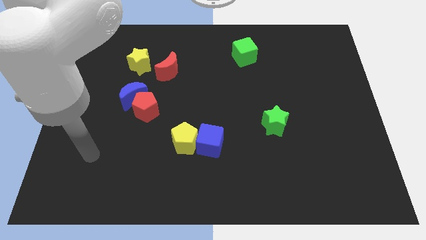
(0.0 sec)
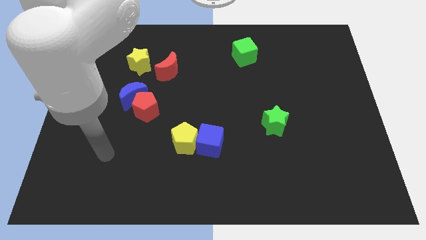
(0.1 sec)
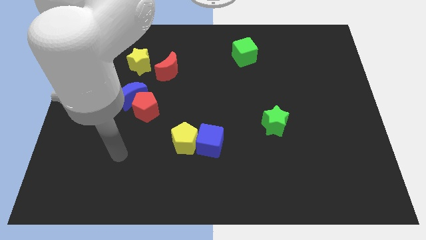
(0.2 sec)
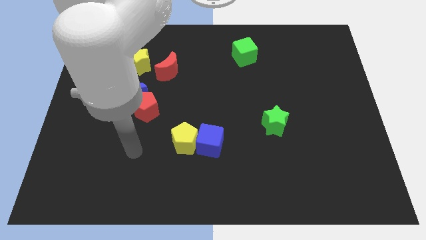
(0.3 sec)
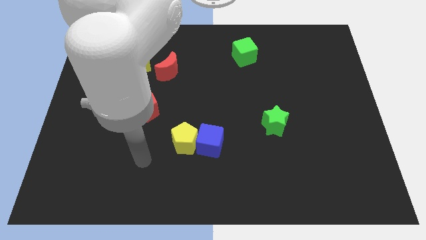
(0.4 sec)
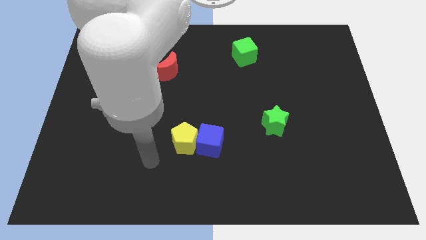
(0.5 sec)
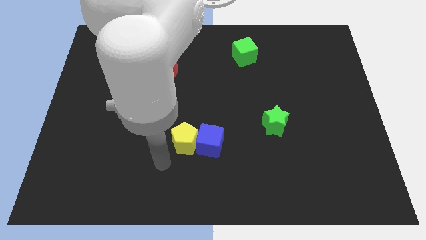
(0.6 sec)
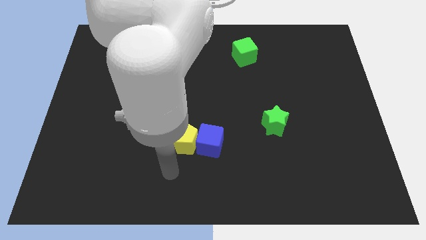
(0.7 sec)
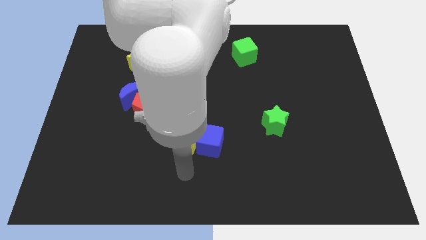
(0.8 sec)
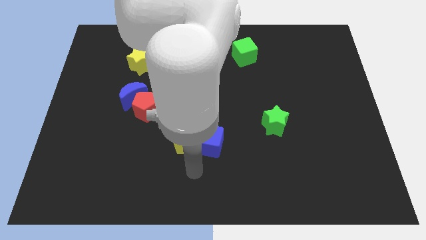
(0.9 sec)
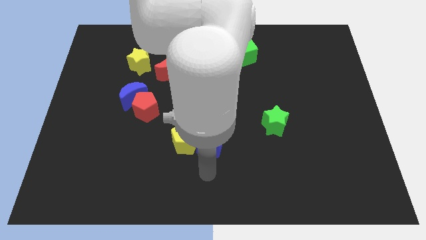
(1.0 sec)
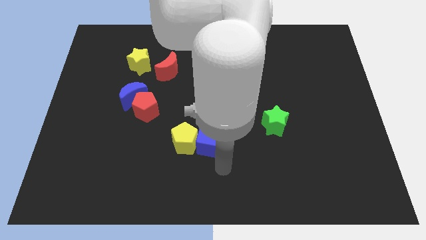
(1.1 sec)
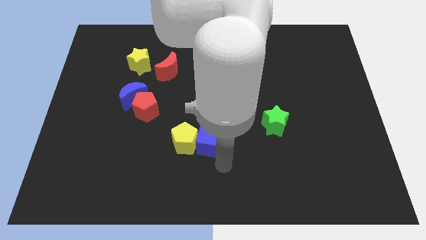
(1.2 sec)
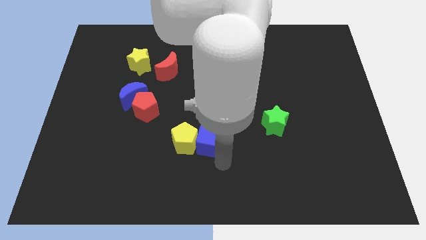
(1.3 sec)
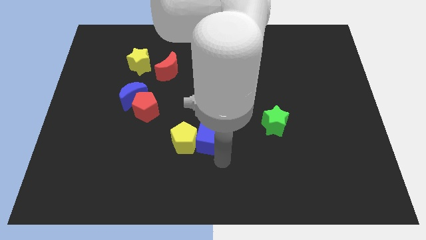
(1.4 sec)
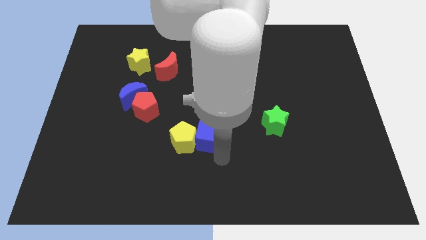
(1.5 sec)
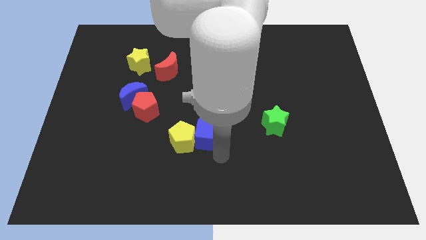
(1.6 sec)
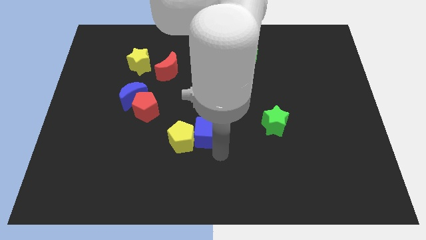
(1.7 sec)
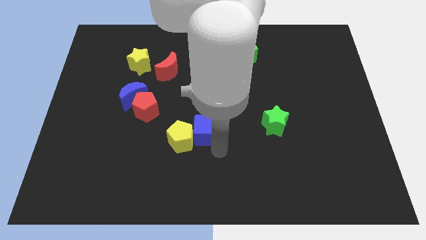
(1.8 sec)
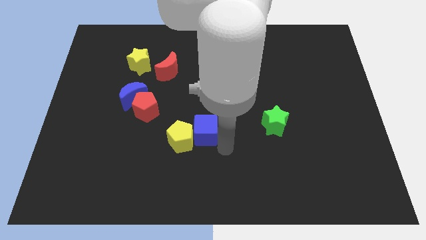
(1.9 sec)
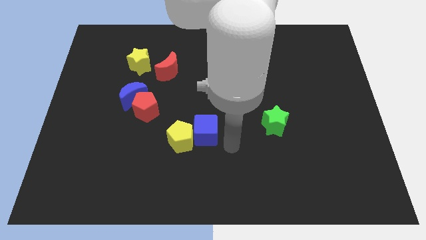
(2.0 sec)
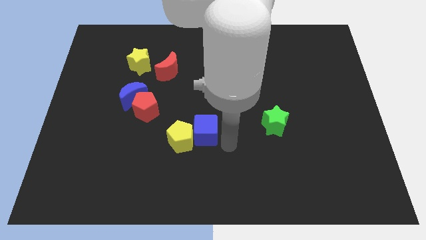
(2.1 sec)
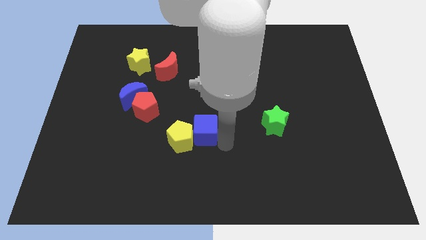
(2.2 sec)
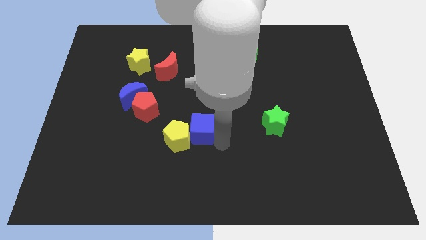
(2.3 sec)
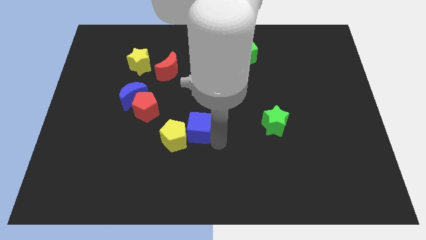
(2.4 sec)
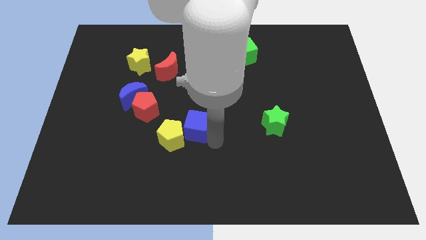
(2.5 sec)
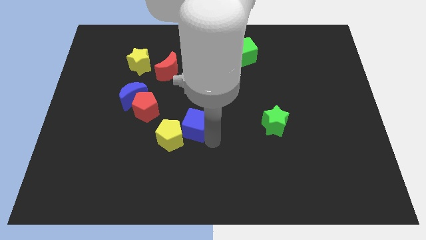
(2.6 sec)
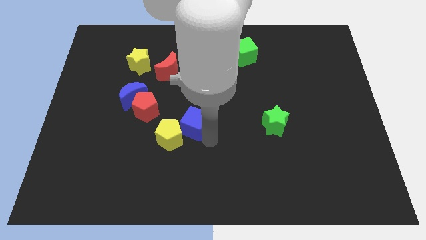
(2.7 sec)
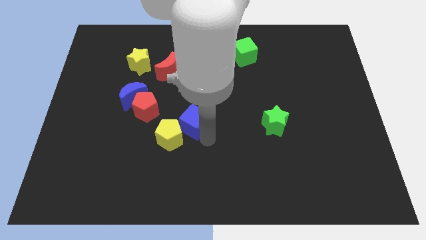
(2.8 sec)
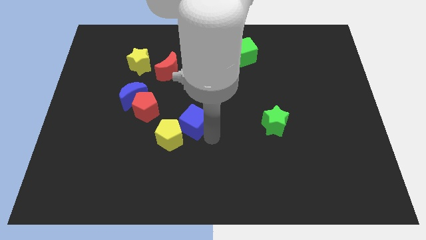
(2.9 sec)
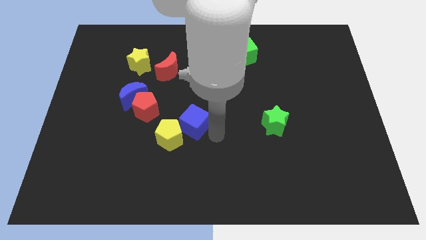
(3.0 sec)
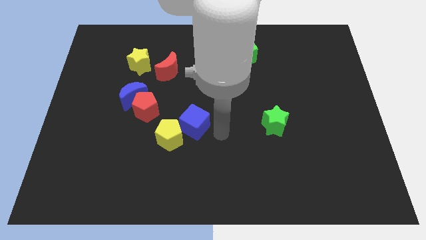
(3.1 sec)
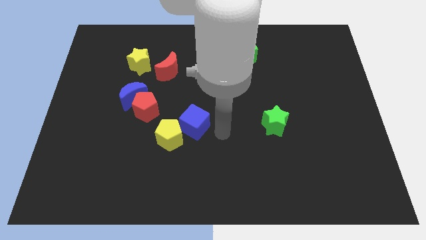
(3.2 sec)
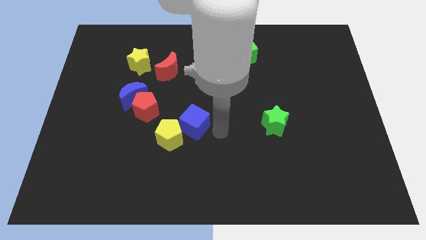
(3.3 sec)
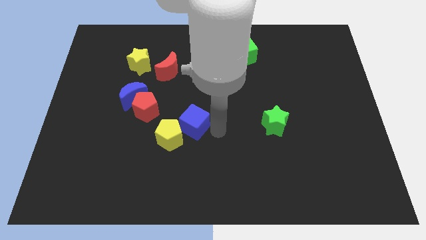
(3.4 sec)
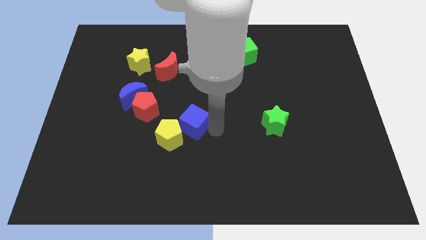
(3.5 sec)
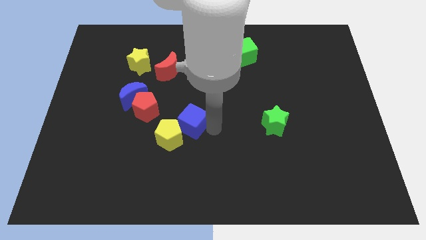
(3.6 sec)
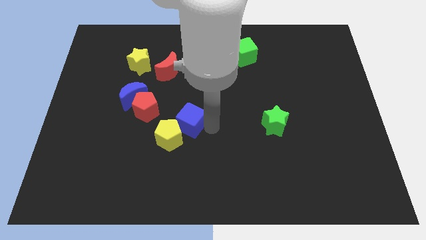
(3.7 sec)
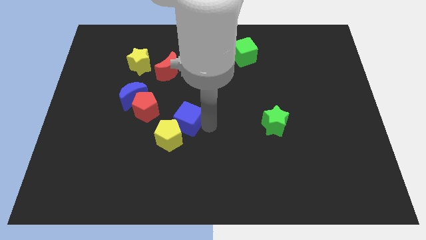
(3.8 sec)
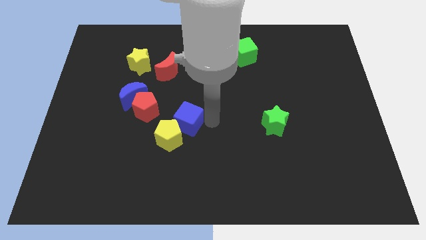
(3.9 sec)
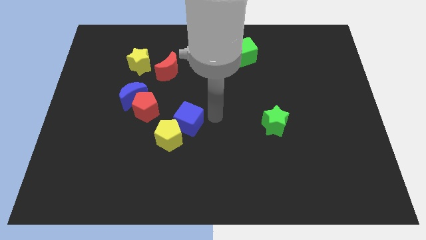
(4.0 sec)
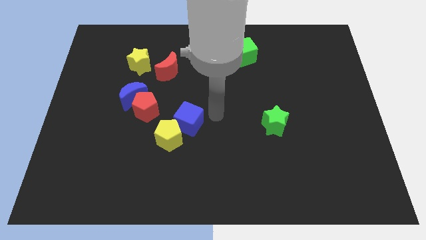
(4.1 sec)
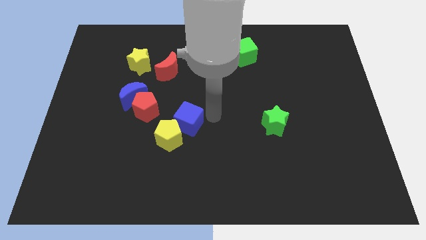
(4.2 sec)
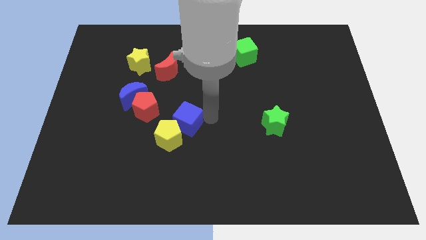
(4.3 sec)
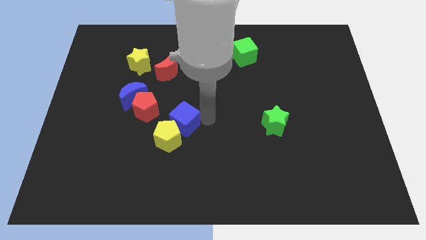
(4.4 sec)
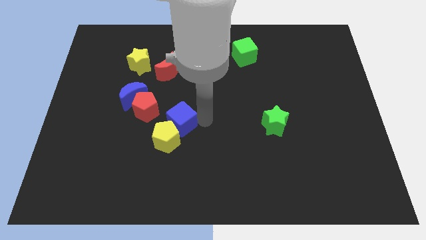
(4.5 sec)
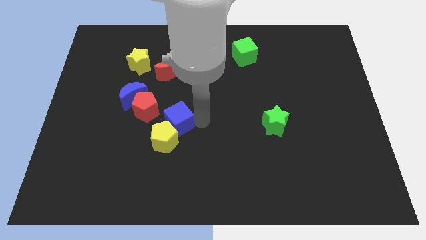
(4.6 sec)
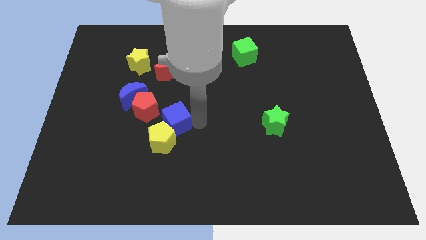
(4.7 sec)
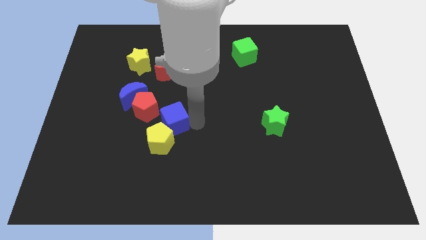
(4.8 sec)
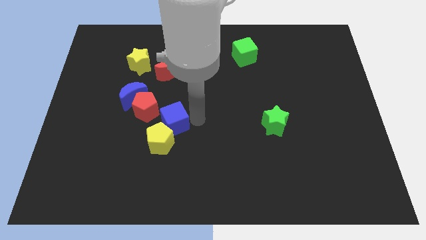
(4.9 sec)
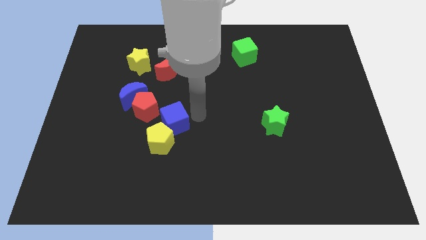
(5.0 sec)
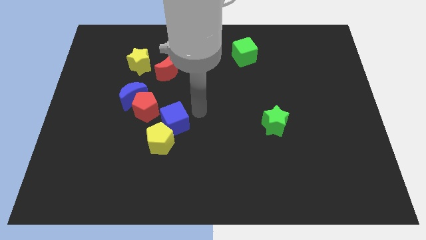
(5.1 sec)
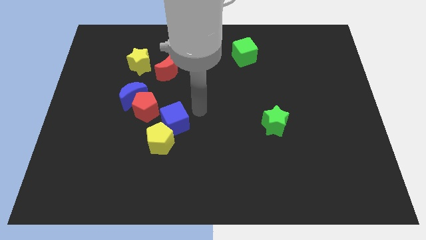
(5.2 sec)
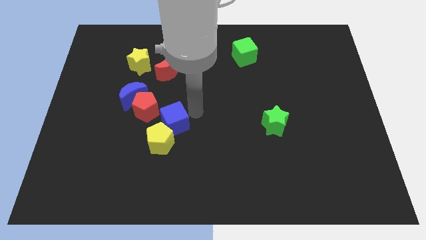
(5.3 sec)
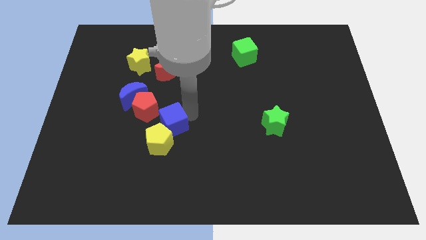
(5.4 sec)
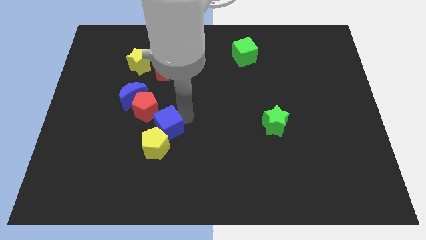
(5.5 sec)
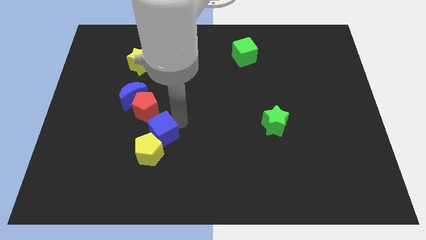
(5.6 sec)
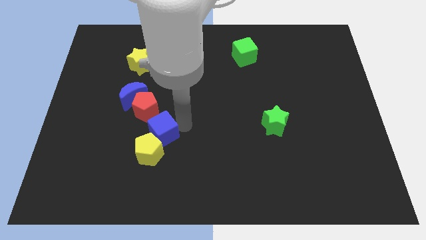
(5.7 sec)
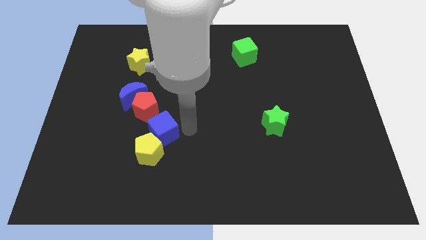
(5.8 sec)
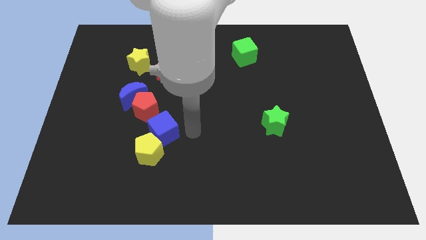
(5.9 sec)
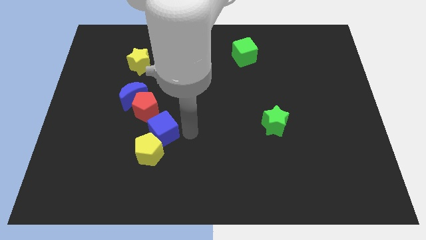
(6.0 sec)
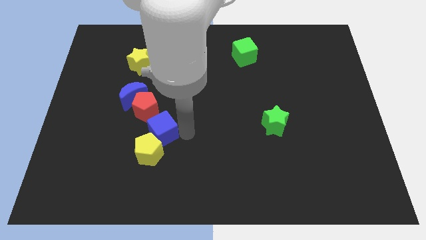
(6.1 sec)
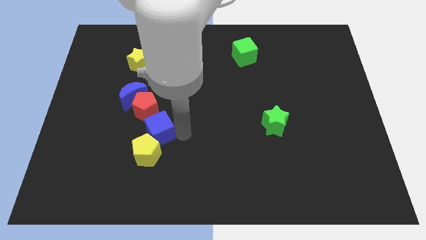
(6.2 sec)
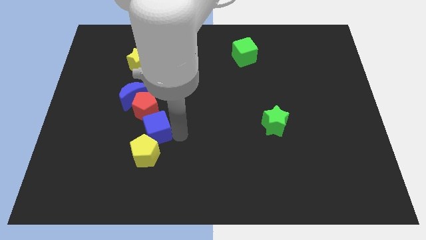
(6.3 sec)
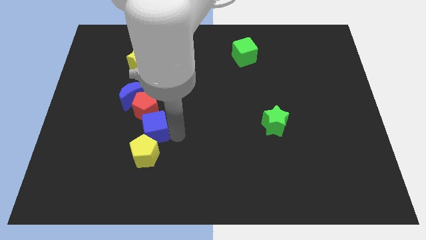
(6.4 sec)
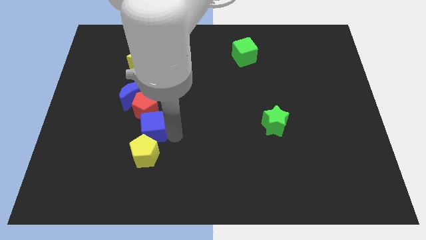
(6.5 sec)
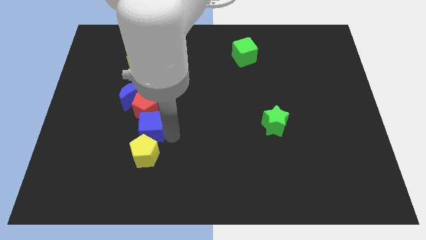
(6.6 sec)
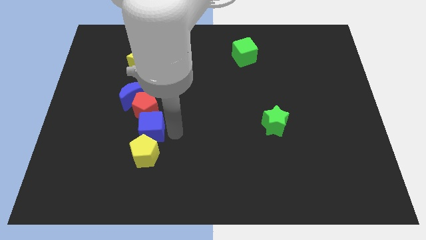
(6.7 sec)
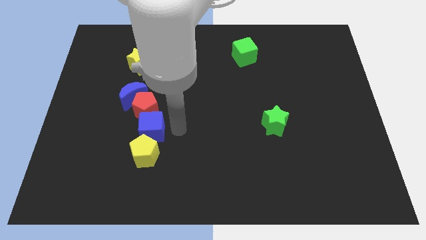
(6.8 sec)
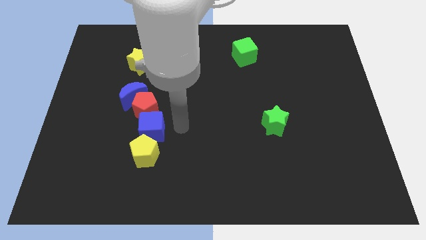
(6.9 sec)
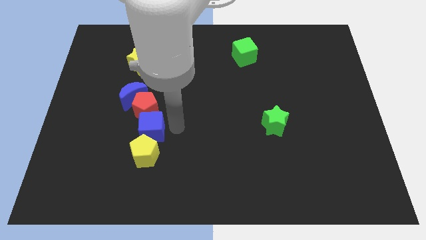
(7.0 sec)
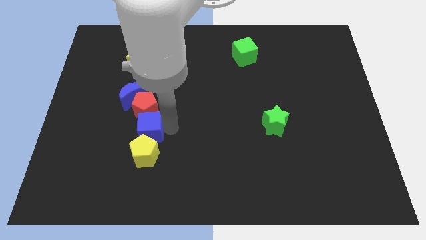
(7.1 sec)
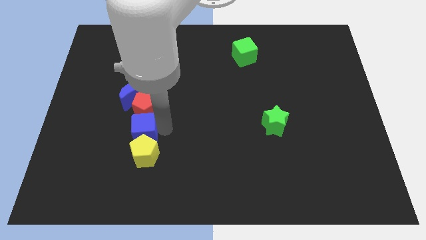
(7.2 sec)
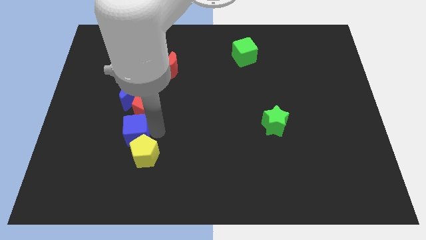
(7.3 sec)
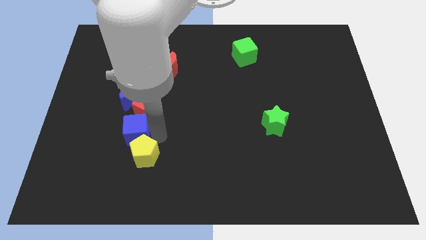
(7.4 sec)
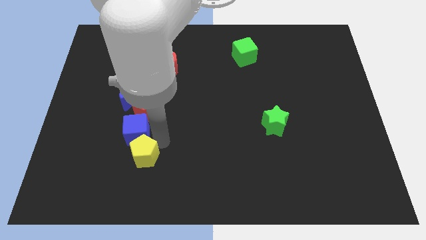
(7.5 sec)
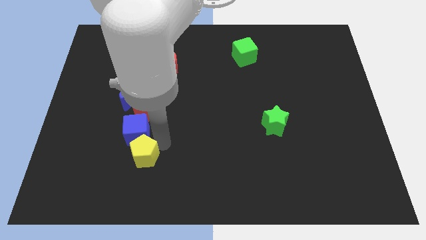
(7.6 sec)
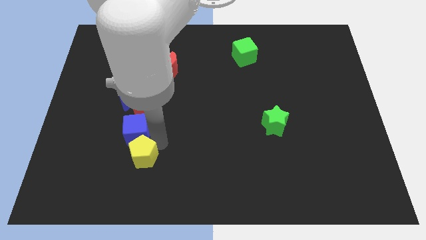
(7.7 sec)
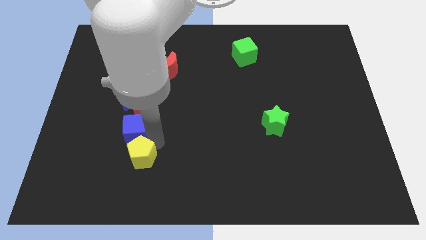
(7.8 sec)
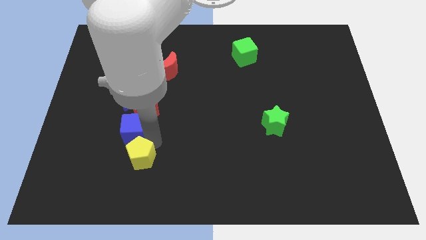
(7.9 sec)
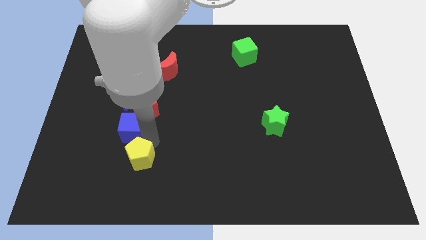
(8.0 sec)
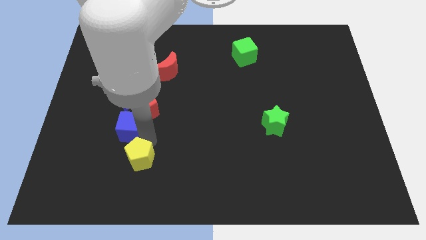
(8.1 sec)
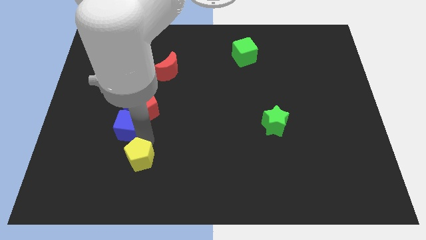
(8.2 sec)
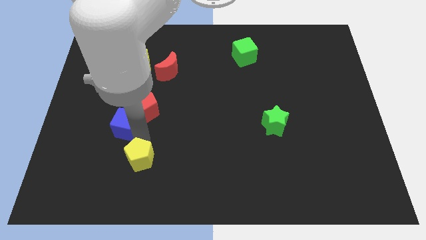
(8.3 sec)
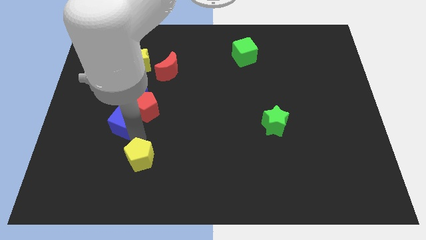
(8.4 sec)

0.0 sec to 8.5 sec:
put the blue cube to the left of the red pentagon

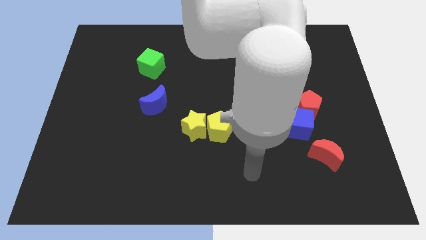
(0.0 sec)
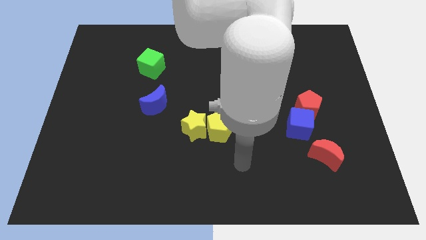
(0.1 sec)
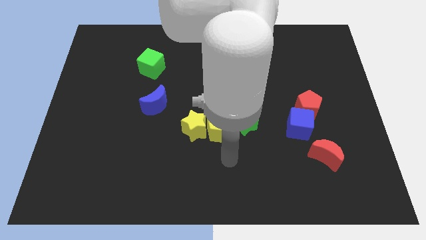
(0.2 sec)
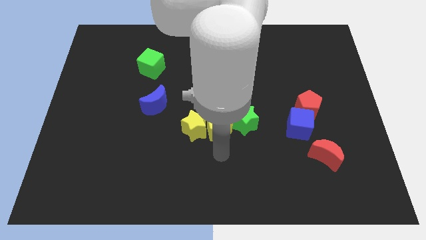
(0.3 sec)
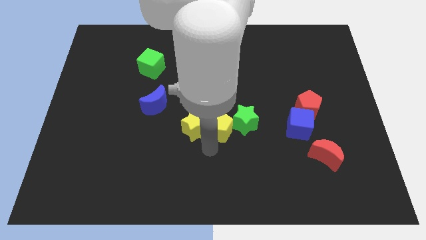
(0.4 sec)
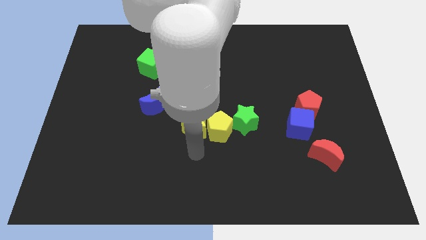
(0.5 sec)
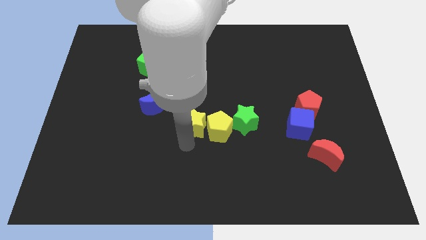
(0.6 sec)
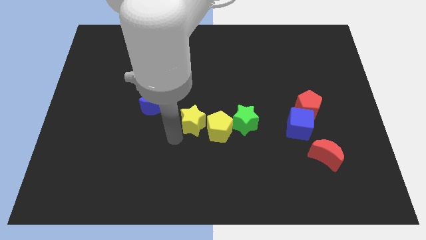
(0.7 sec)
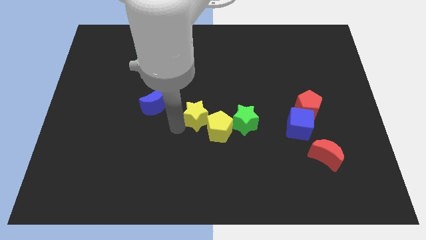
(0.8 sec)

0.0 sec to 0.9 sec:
slide the blue moon just left of the yellow star
